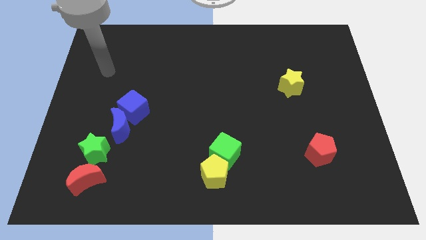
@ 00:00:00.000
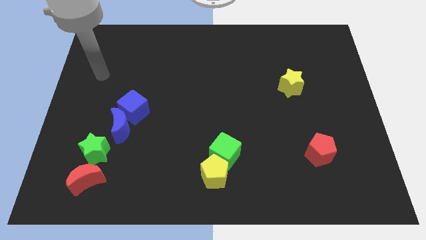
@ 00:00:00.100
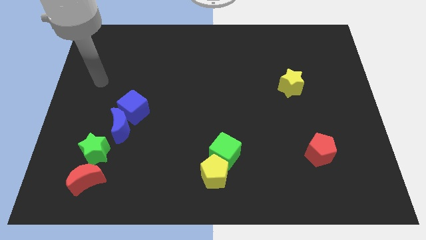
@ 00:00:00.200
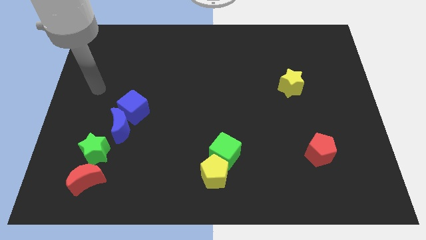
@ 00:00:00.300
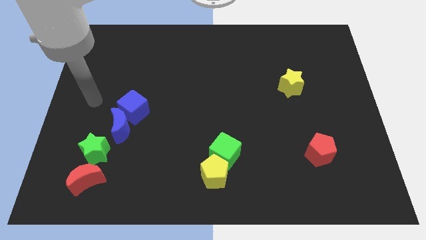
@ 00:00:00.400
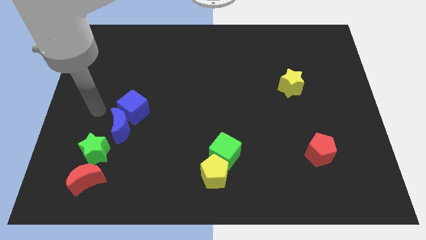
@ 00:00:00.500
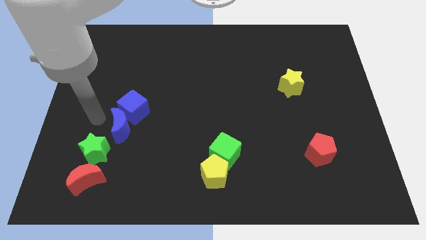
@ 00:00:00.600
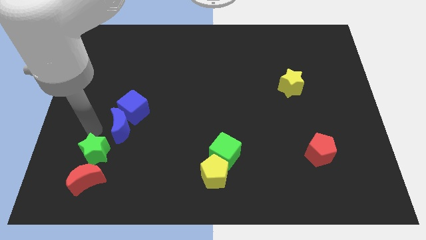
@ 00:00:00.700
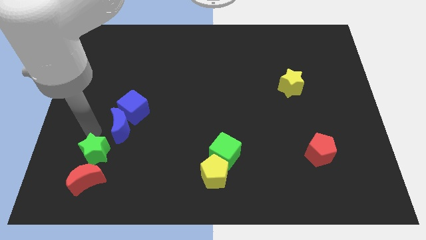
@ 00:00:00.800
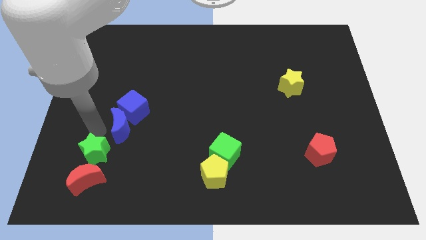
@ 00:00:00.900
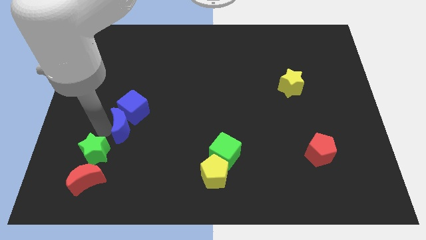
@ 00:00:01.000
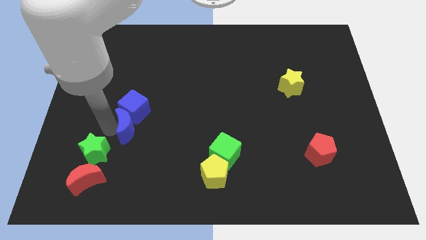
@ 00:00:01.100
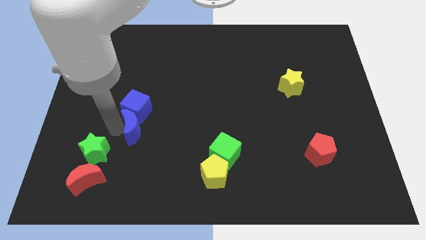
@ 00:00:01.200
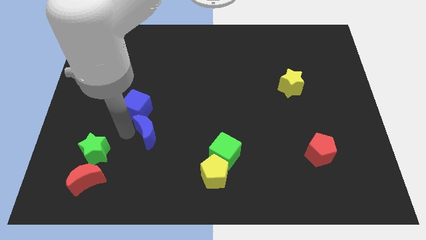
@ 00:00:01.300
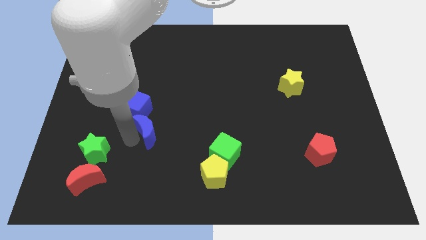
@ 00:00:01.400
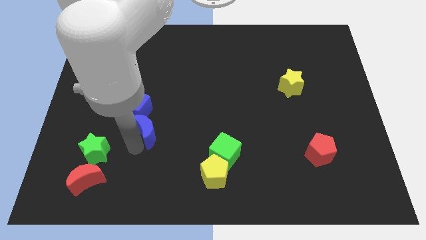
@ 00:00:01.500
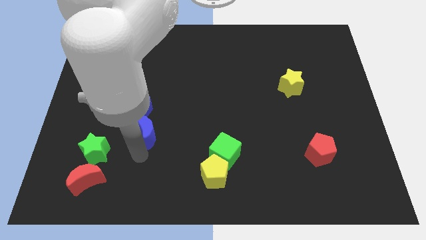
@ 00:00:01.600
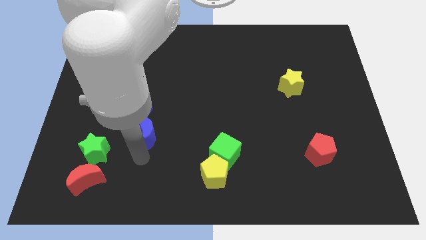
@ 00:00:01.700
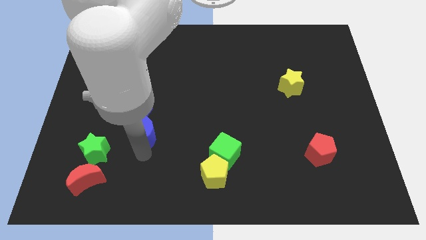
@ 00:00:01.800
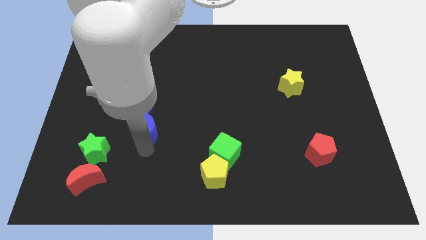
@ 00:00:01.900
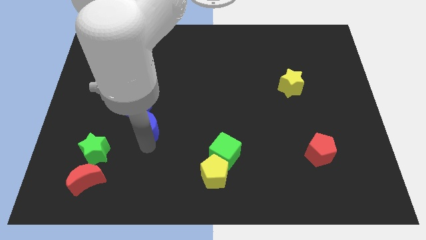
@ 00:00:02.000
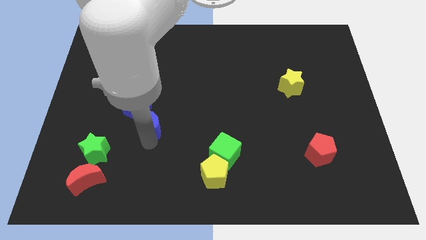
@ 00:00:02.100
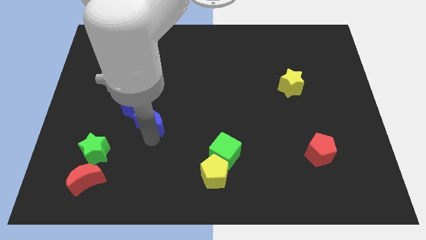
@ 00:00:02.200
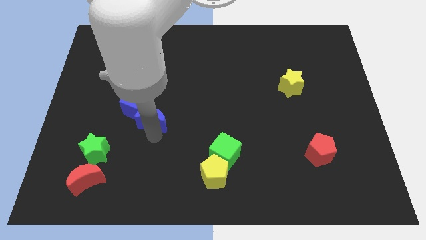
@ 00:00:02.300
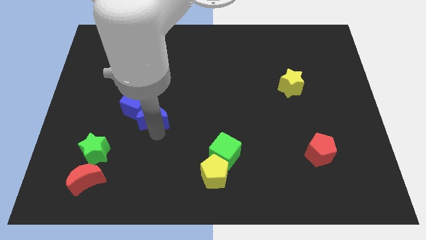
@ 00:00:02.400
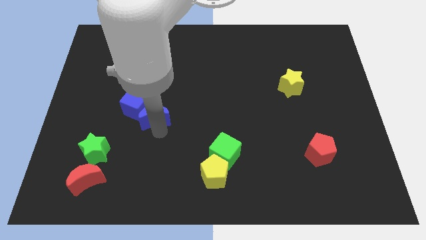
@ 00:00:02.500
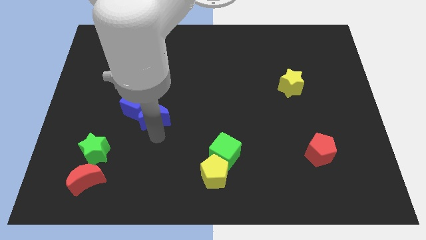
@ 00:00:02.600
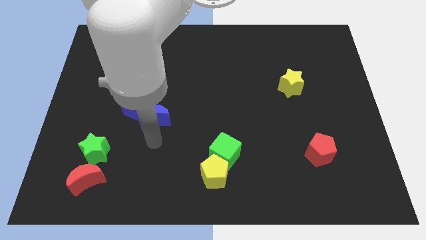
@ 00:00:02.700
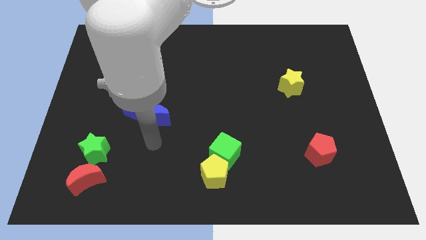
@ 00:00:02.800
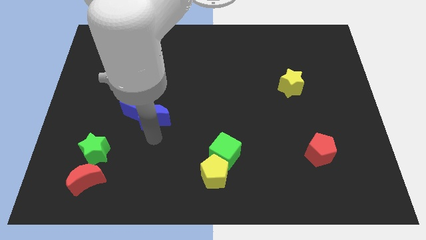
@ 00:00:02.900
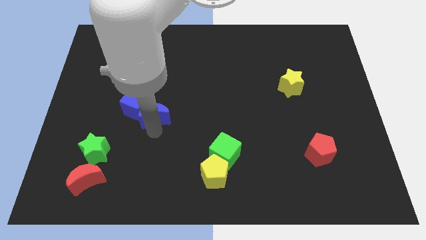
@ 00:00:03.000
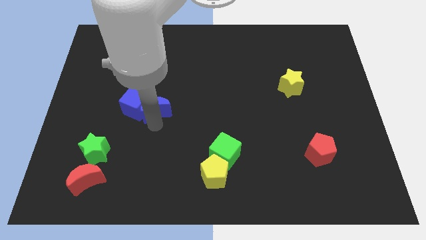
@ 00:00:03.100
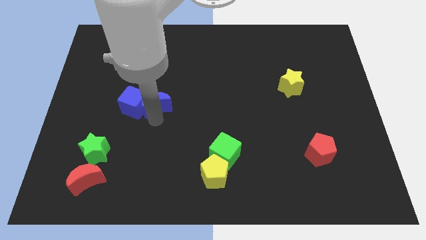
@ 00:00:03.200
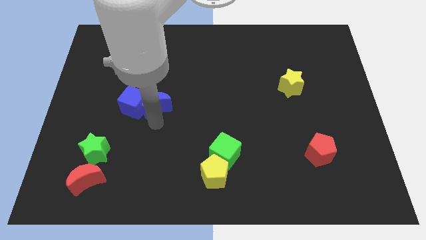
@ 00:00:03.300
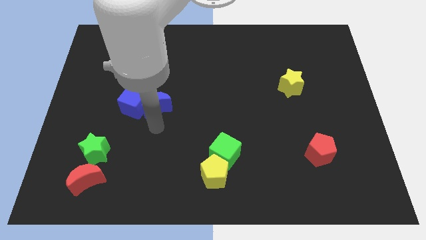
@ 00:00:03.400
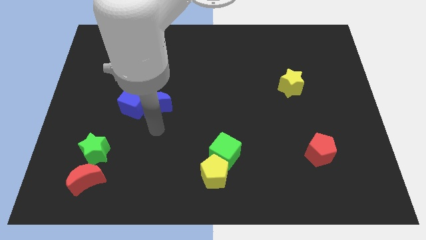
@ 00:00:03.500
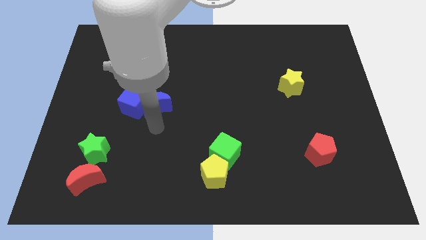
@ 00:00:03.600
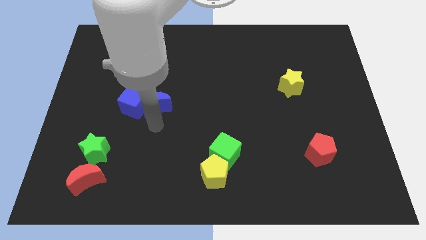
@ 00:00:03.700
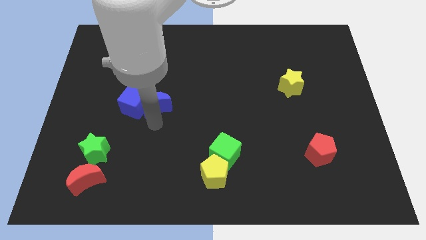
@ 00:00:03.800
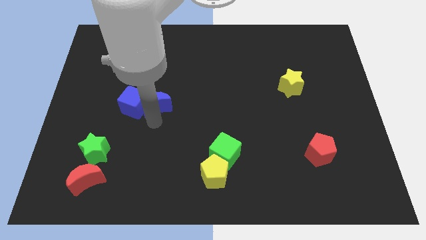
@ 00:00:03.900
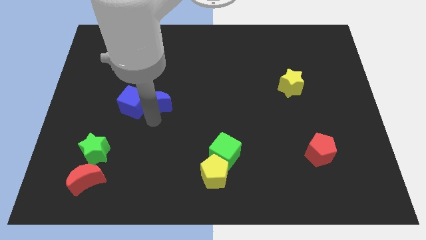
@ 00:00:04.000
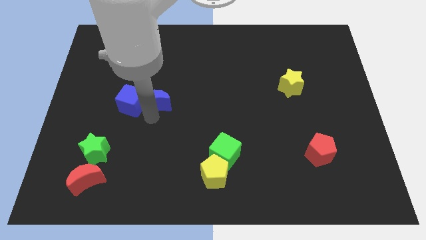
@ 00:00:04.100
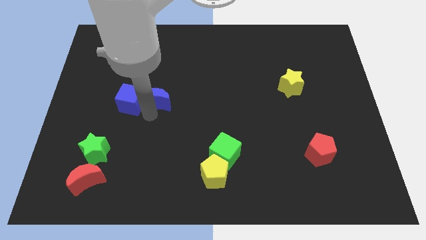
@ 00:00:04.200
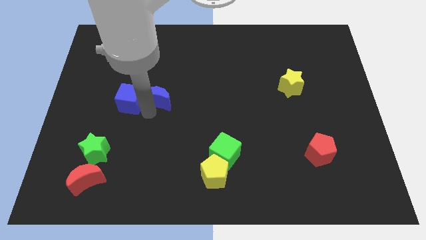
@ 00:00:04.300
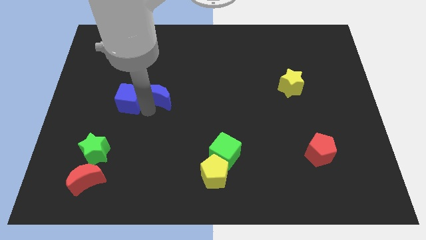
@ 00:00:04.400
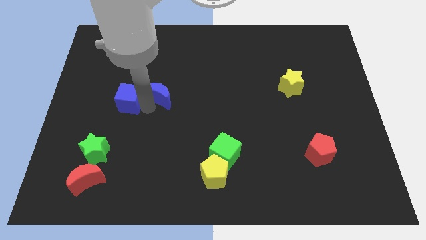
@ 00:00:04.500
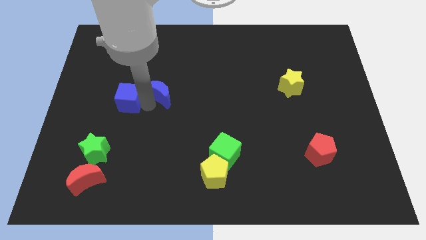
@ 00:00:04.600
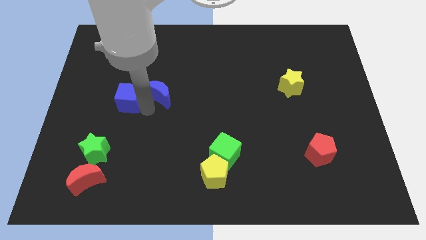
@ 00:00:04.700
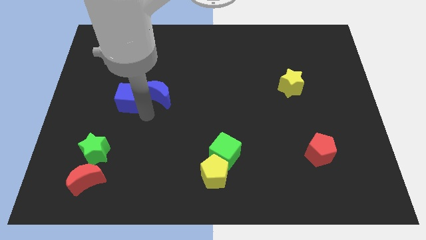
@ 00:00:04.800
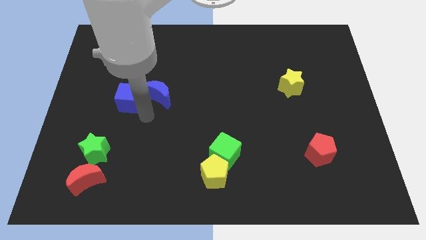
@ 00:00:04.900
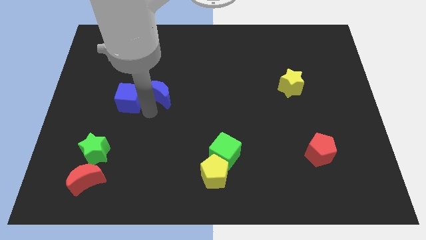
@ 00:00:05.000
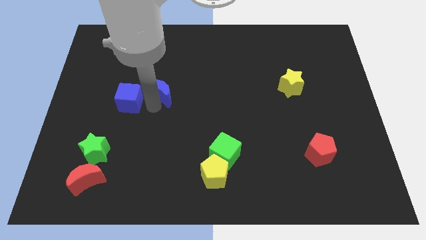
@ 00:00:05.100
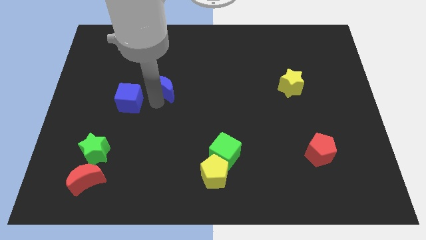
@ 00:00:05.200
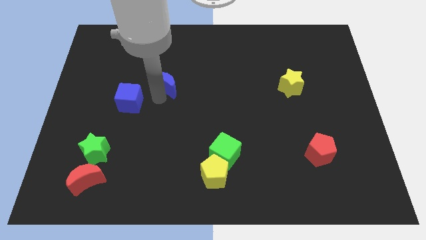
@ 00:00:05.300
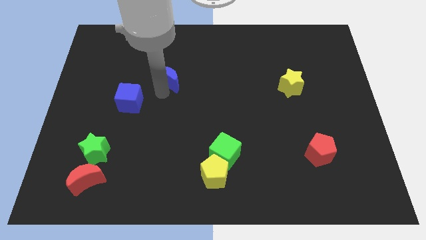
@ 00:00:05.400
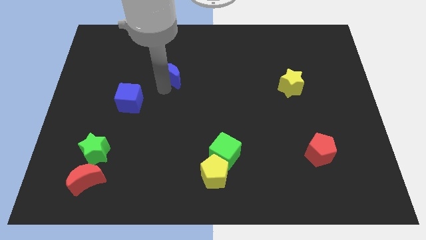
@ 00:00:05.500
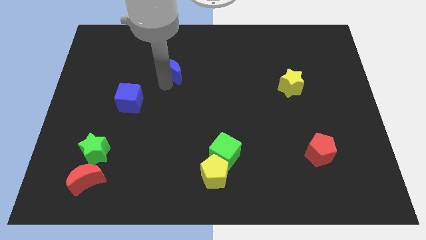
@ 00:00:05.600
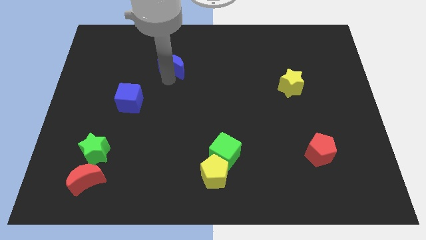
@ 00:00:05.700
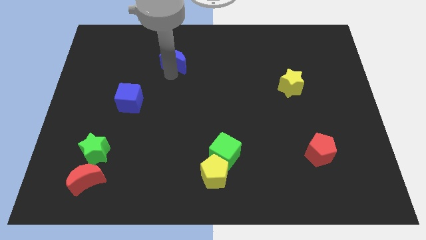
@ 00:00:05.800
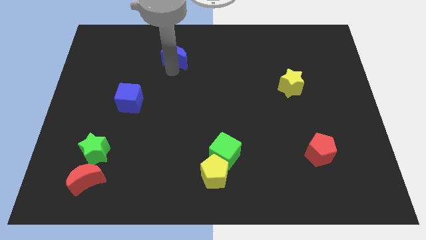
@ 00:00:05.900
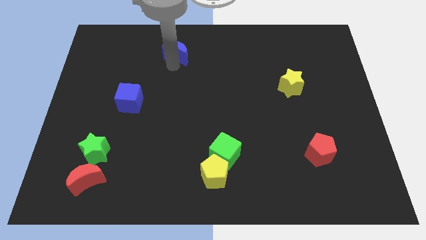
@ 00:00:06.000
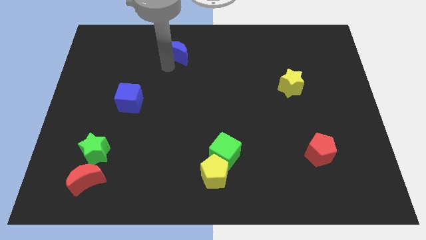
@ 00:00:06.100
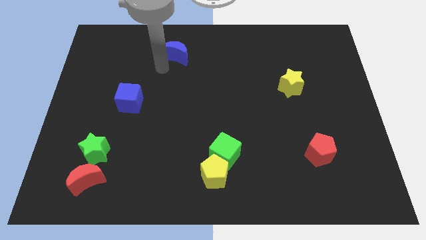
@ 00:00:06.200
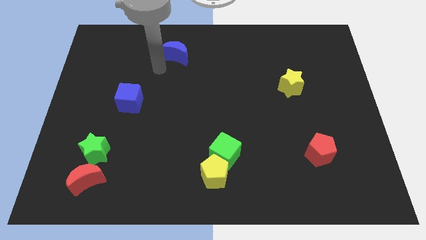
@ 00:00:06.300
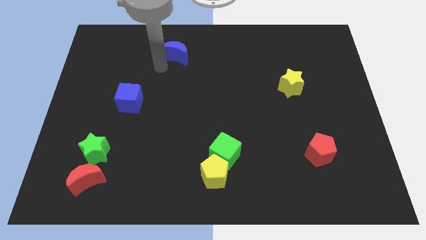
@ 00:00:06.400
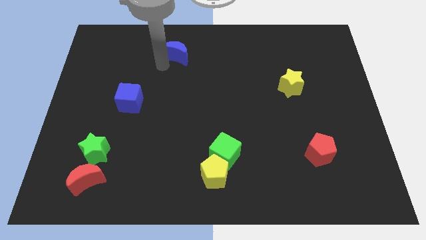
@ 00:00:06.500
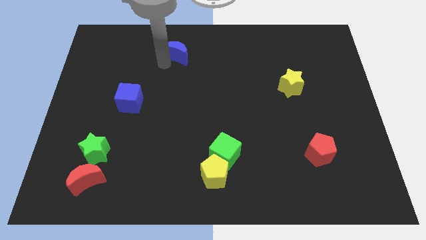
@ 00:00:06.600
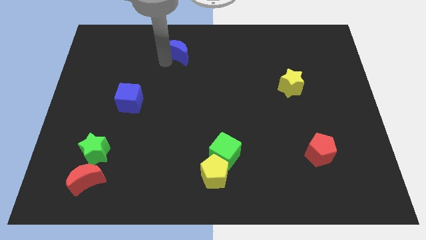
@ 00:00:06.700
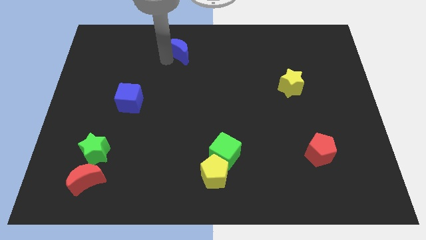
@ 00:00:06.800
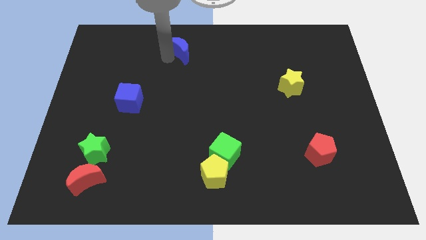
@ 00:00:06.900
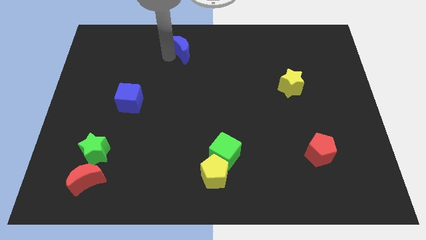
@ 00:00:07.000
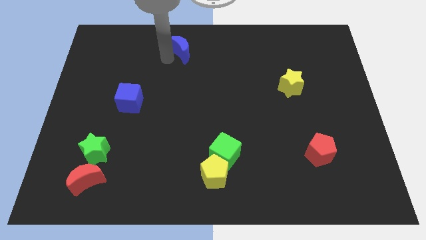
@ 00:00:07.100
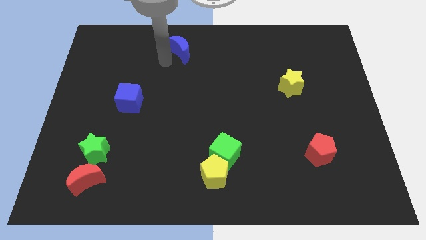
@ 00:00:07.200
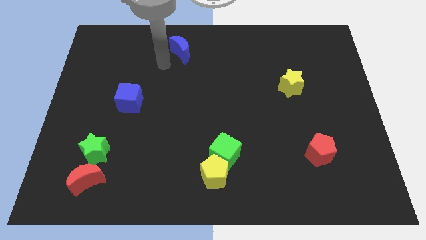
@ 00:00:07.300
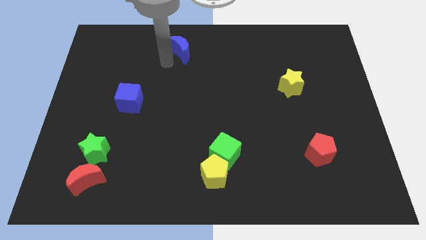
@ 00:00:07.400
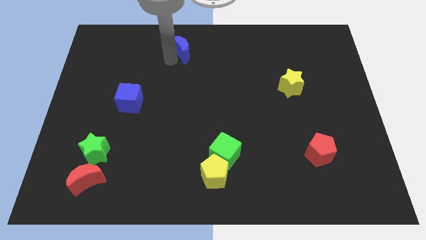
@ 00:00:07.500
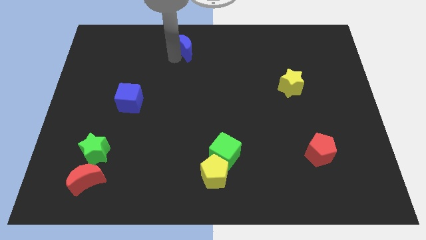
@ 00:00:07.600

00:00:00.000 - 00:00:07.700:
move the blue moon to the towards your base
